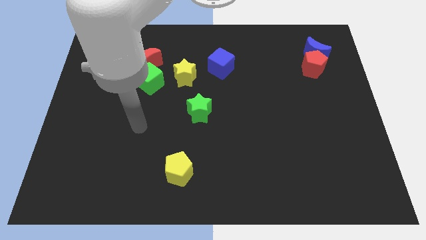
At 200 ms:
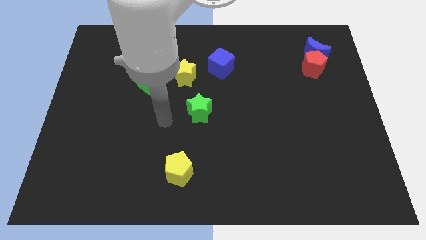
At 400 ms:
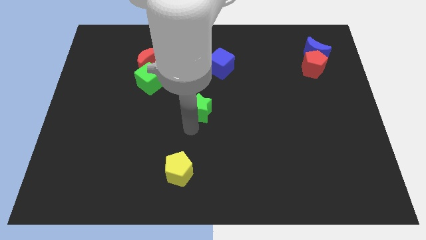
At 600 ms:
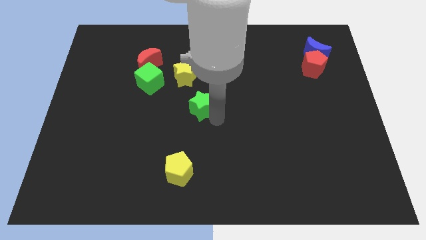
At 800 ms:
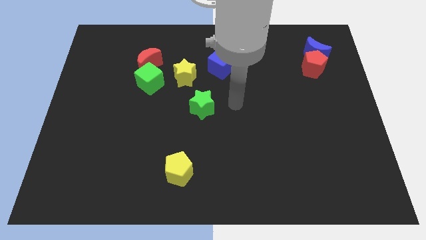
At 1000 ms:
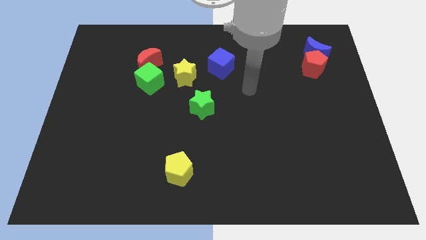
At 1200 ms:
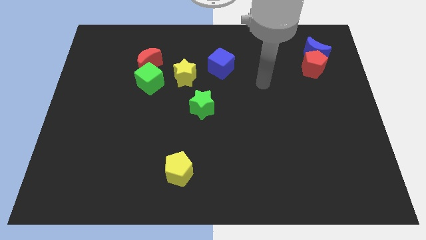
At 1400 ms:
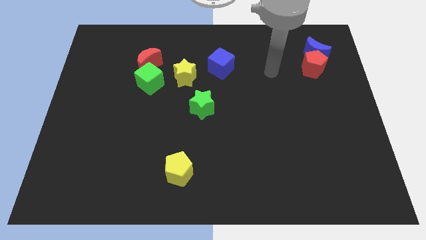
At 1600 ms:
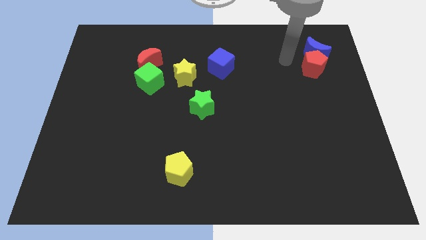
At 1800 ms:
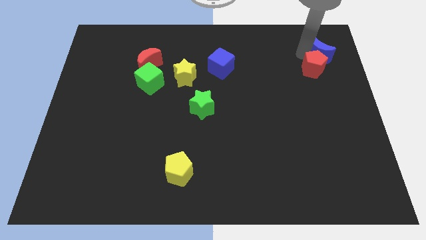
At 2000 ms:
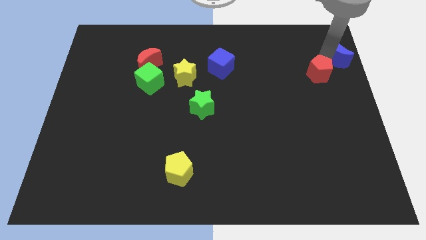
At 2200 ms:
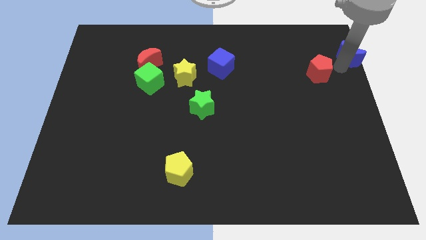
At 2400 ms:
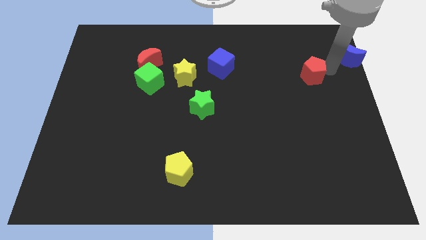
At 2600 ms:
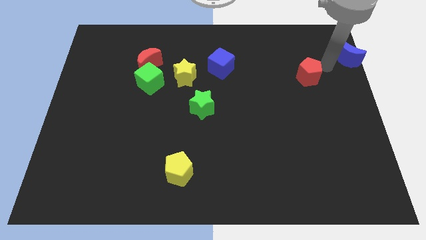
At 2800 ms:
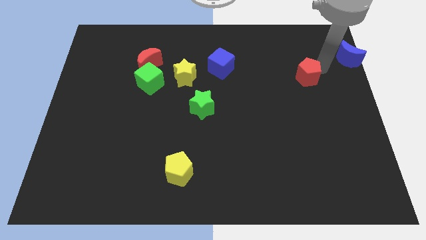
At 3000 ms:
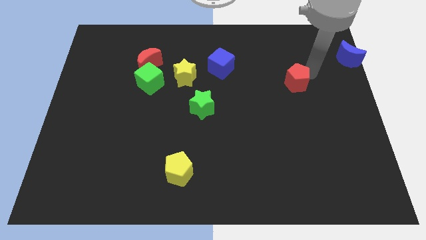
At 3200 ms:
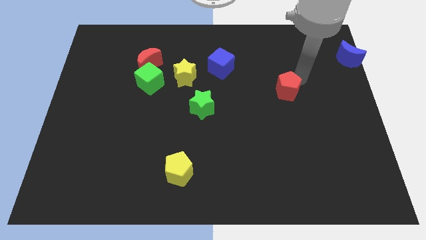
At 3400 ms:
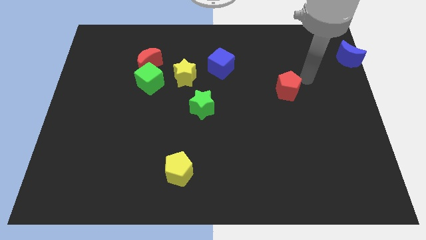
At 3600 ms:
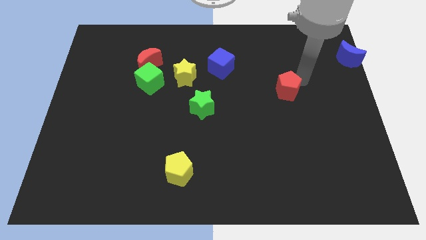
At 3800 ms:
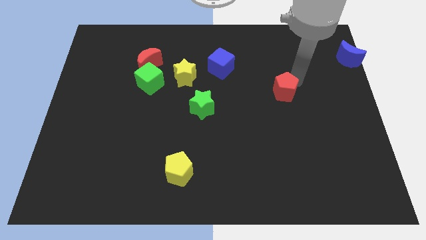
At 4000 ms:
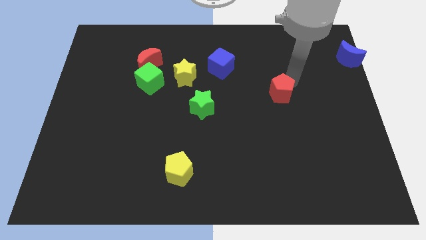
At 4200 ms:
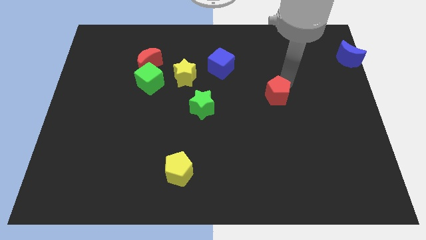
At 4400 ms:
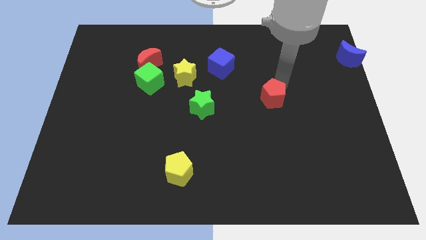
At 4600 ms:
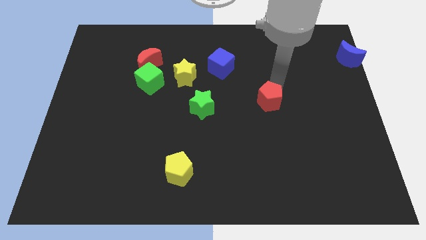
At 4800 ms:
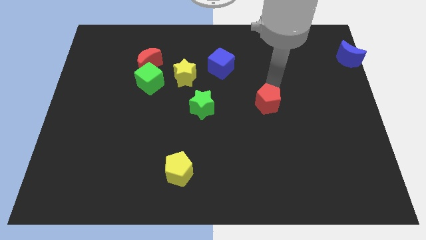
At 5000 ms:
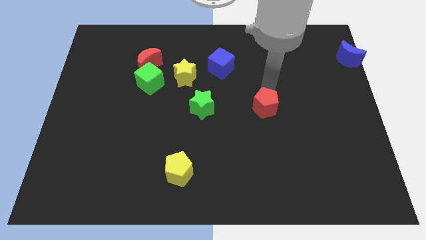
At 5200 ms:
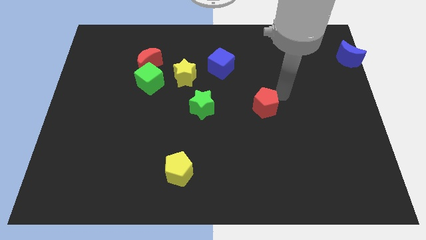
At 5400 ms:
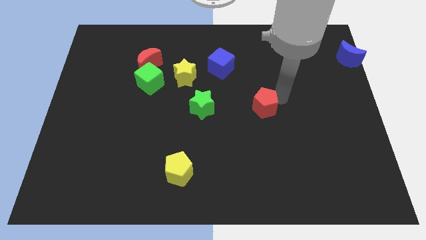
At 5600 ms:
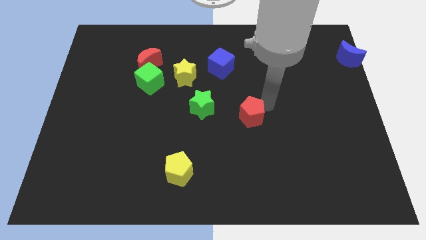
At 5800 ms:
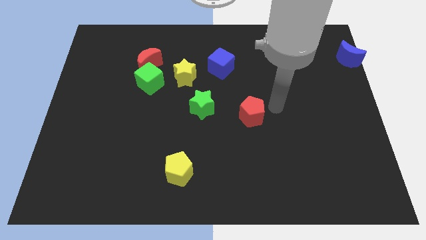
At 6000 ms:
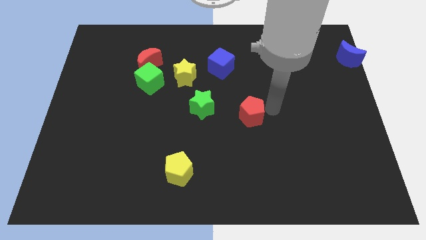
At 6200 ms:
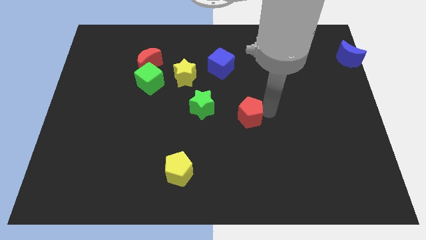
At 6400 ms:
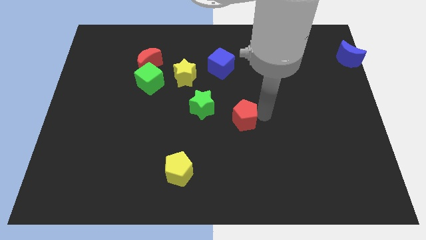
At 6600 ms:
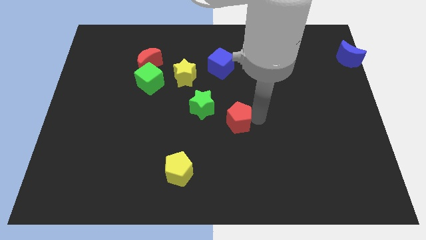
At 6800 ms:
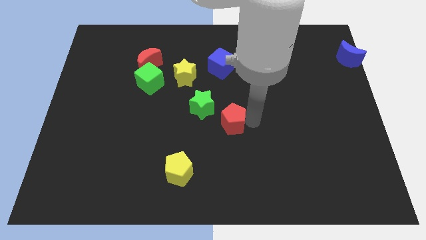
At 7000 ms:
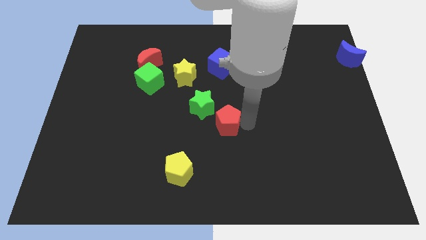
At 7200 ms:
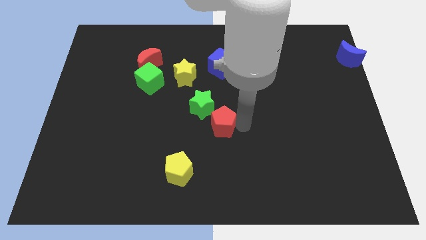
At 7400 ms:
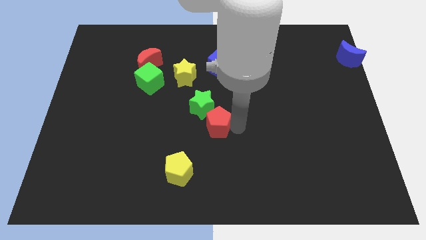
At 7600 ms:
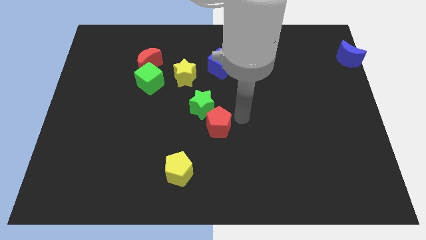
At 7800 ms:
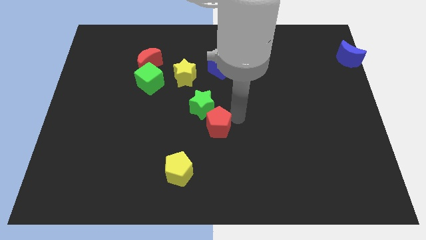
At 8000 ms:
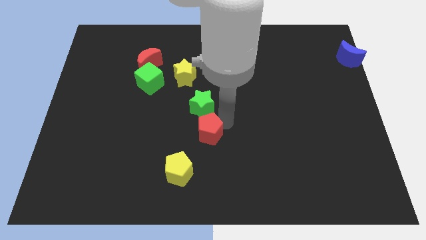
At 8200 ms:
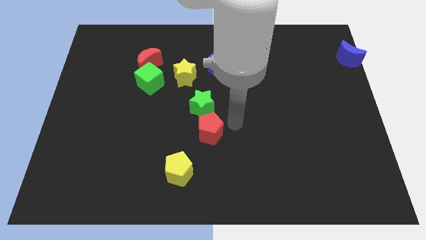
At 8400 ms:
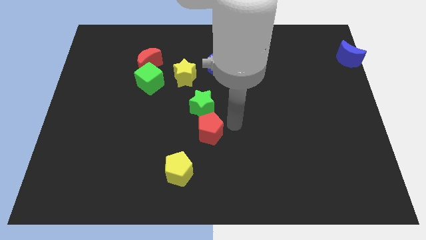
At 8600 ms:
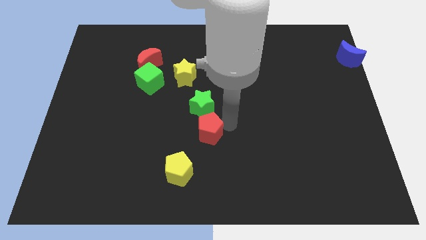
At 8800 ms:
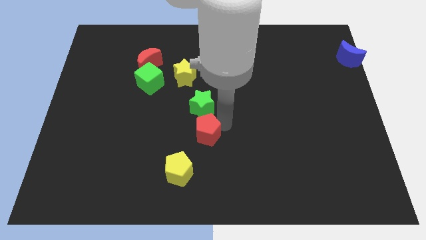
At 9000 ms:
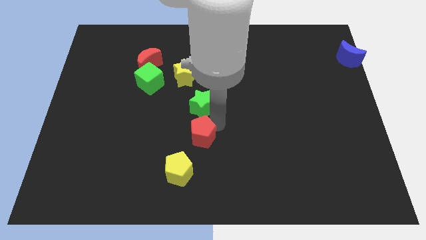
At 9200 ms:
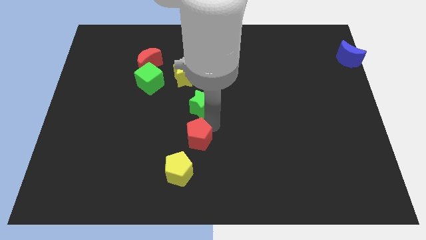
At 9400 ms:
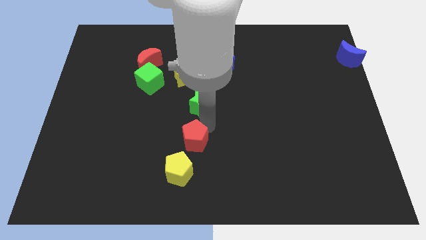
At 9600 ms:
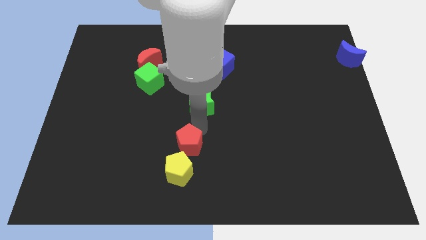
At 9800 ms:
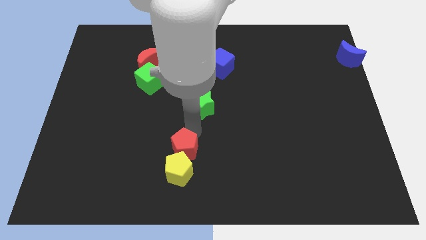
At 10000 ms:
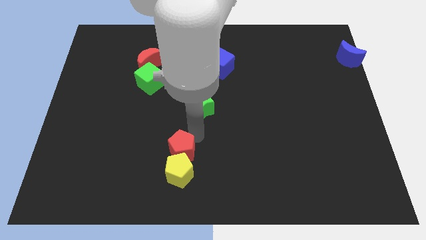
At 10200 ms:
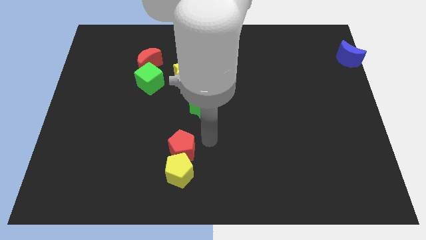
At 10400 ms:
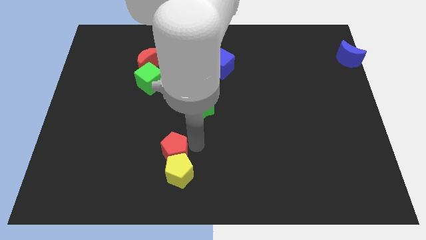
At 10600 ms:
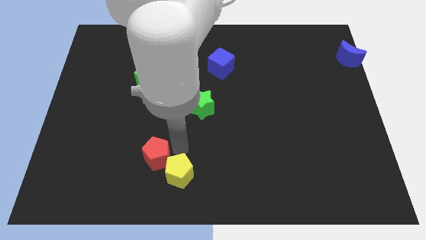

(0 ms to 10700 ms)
put the red pentagon to the left side of the yellow pentagon

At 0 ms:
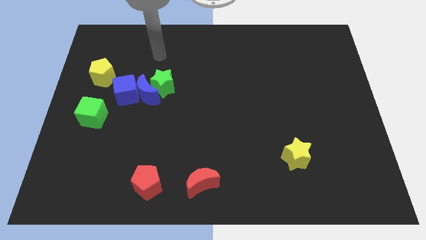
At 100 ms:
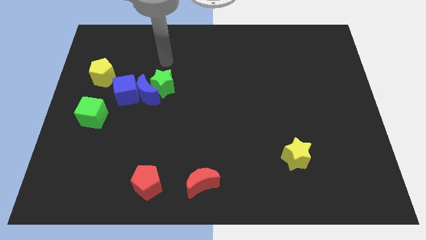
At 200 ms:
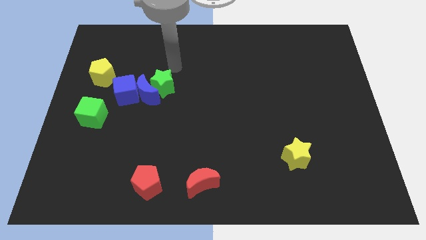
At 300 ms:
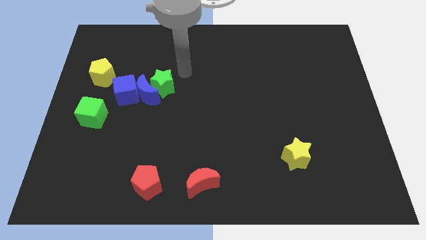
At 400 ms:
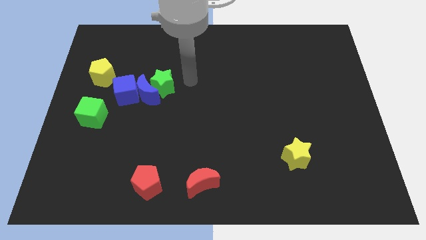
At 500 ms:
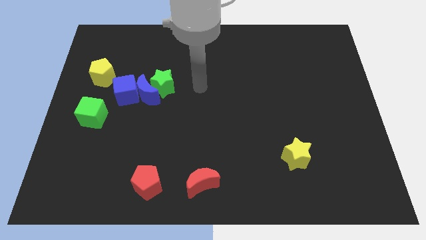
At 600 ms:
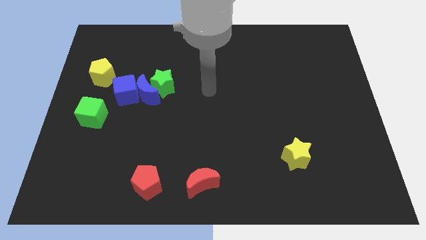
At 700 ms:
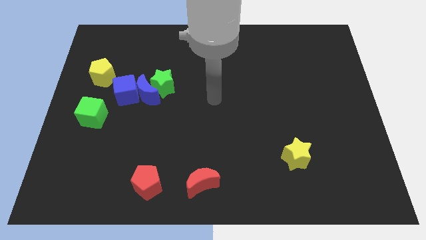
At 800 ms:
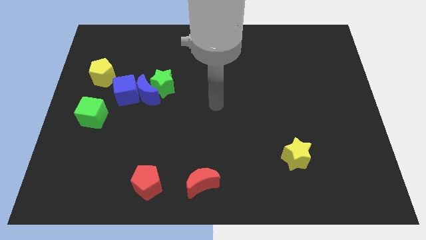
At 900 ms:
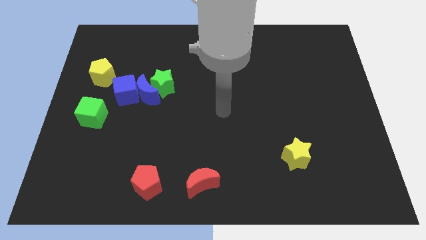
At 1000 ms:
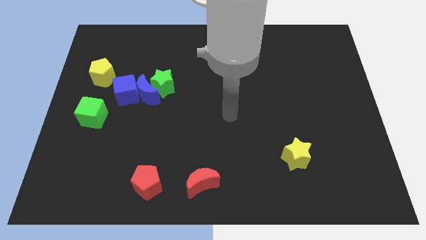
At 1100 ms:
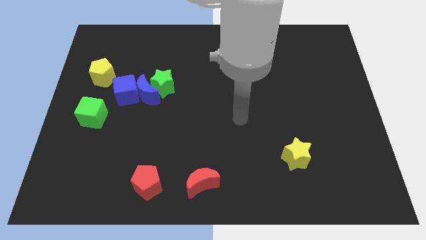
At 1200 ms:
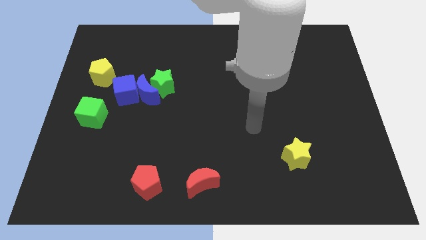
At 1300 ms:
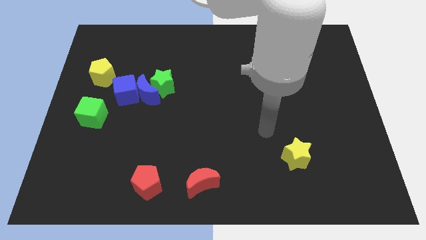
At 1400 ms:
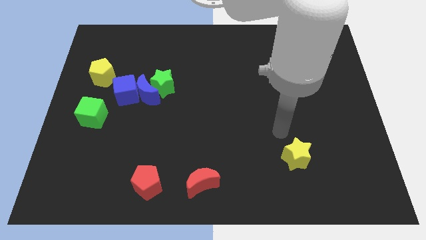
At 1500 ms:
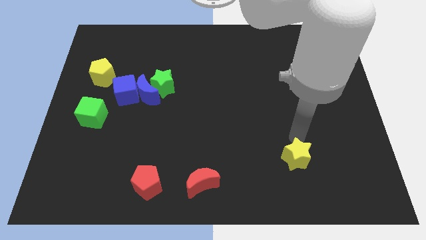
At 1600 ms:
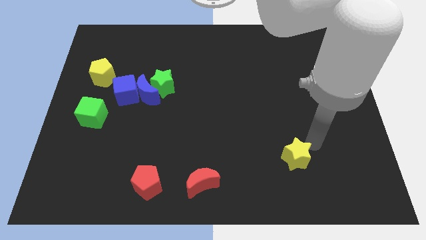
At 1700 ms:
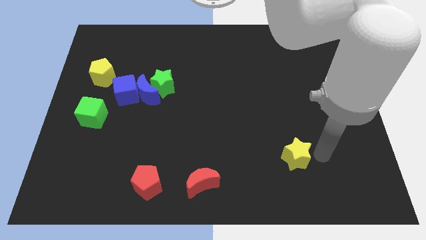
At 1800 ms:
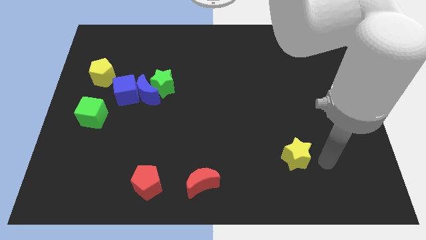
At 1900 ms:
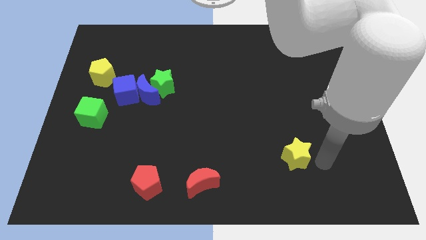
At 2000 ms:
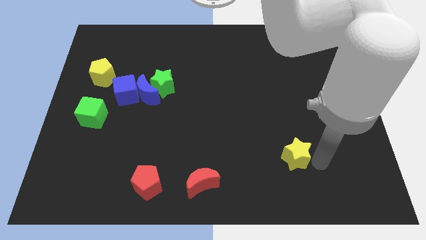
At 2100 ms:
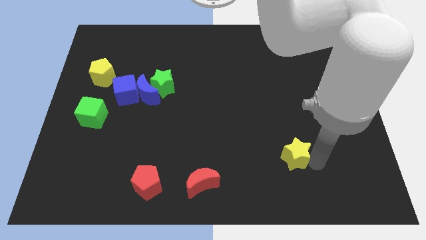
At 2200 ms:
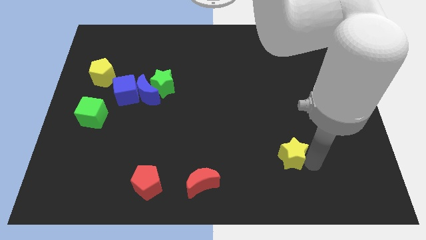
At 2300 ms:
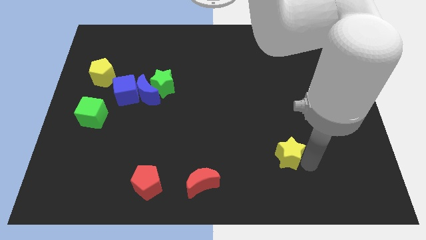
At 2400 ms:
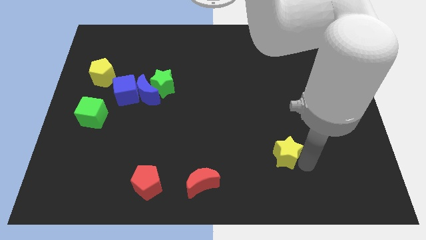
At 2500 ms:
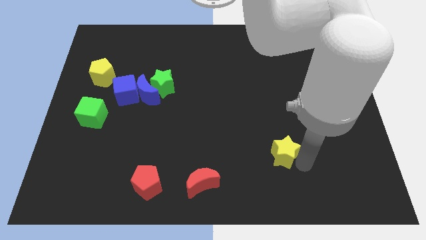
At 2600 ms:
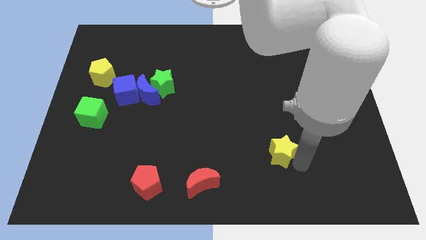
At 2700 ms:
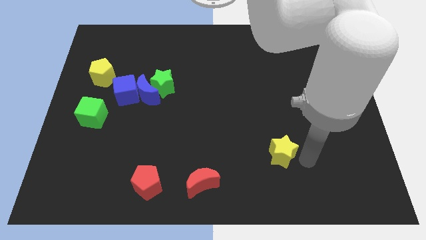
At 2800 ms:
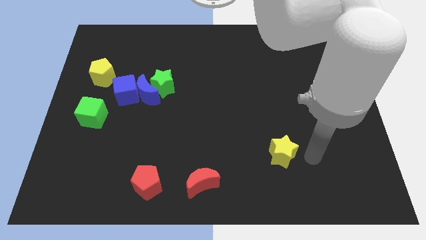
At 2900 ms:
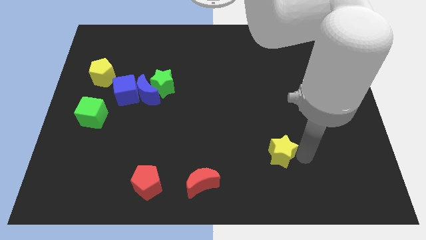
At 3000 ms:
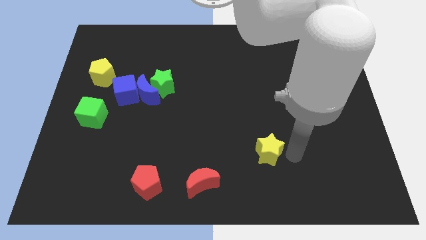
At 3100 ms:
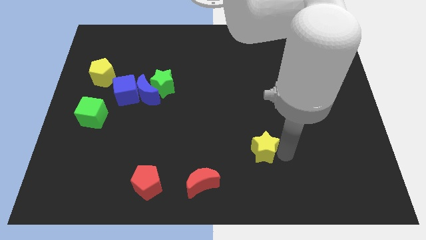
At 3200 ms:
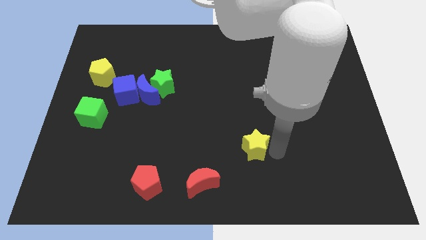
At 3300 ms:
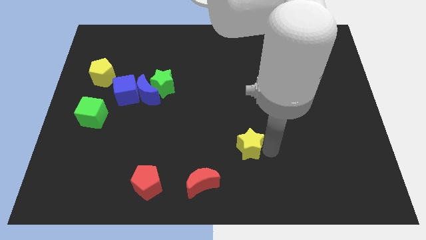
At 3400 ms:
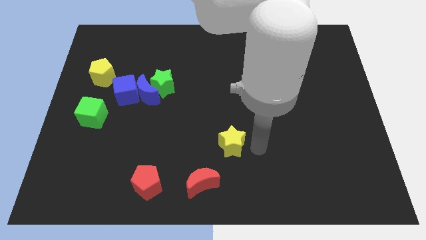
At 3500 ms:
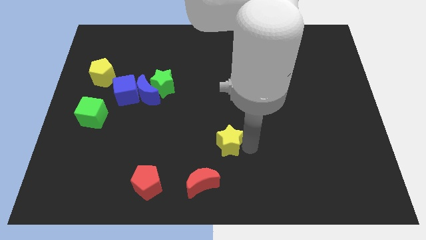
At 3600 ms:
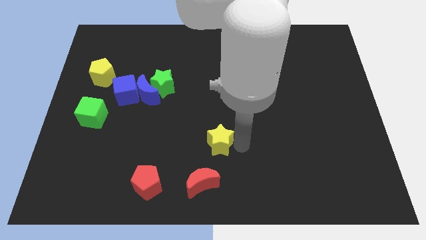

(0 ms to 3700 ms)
move the yellow star to the top of the red moon
